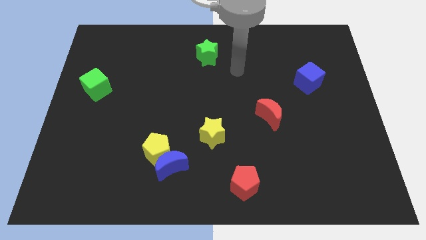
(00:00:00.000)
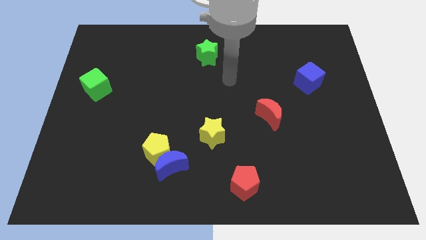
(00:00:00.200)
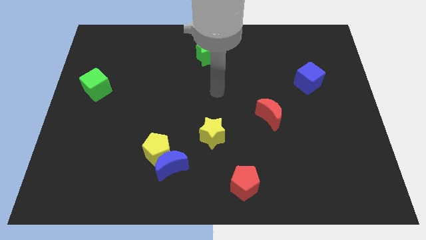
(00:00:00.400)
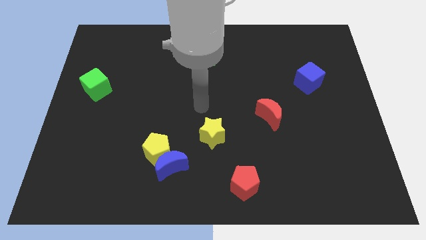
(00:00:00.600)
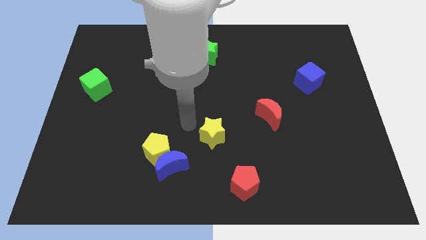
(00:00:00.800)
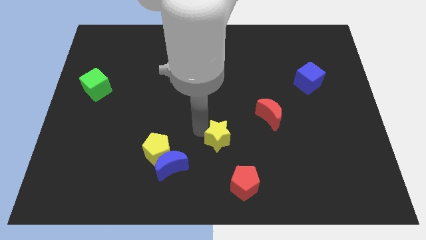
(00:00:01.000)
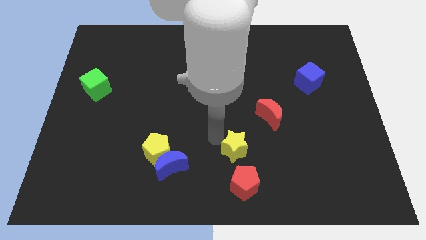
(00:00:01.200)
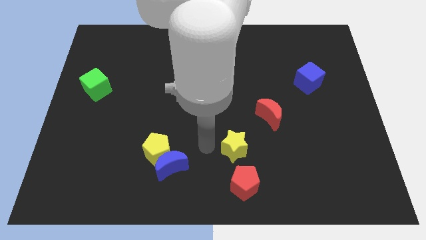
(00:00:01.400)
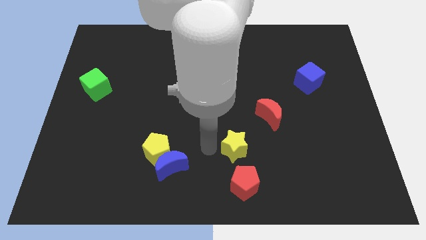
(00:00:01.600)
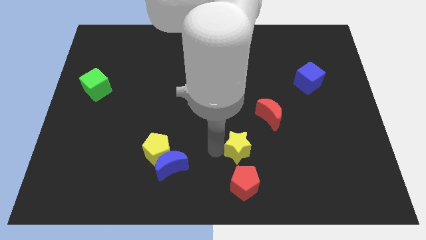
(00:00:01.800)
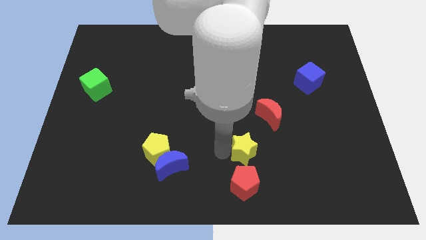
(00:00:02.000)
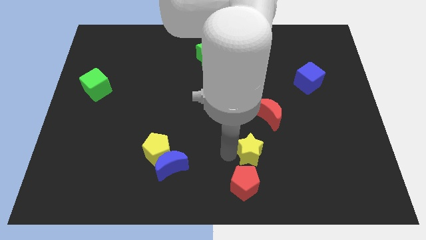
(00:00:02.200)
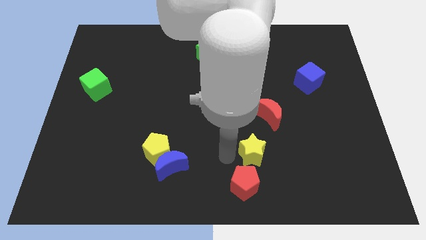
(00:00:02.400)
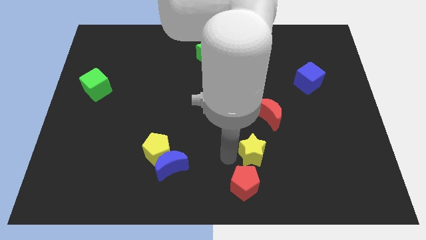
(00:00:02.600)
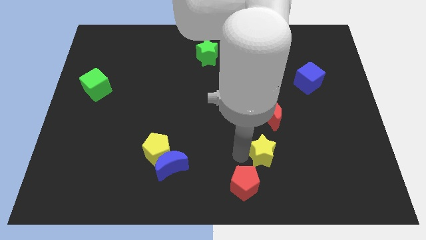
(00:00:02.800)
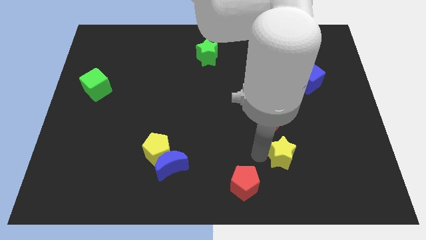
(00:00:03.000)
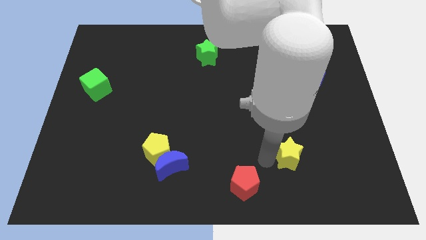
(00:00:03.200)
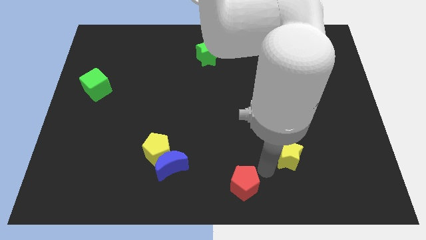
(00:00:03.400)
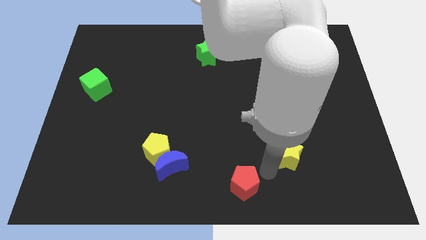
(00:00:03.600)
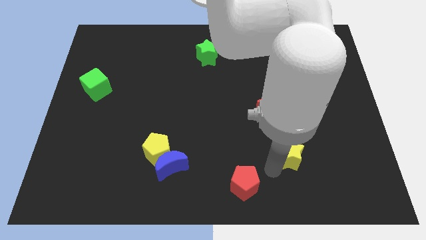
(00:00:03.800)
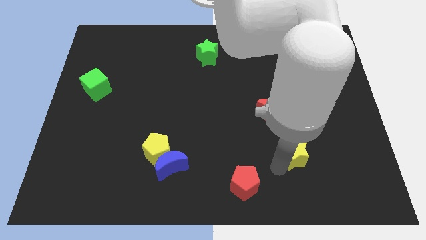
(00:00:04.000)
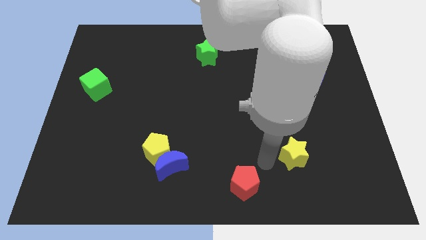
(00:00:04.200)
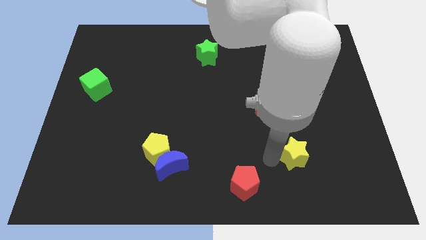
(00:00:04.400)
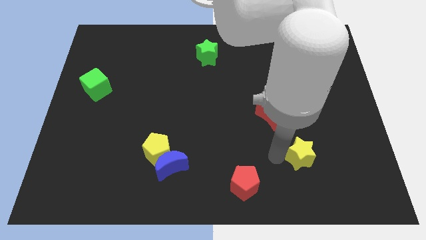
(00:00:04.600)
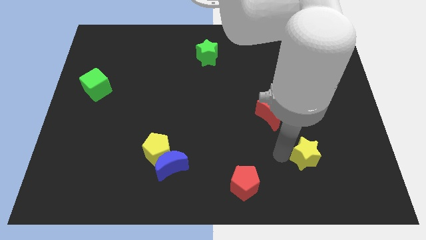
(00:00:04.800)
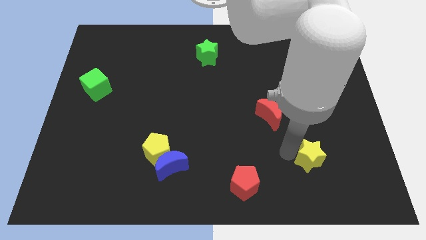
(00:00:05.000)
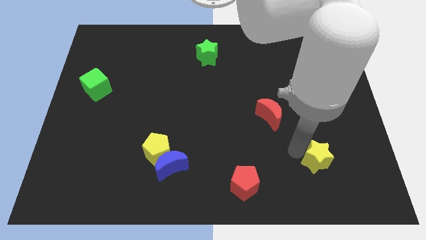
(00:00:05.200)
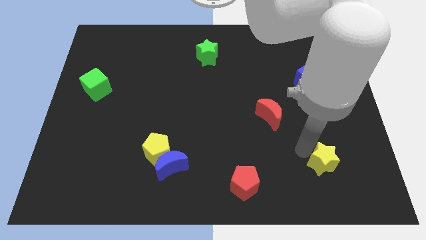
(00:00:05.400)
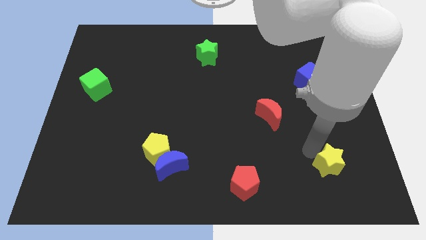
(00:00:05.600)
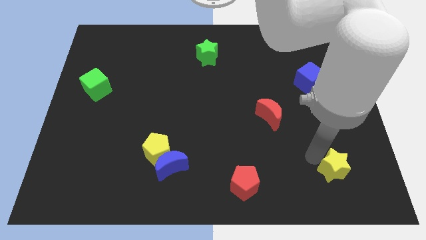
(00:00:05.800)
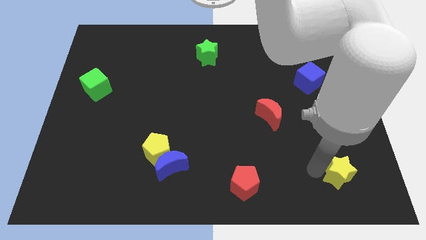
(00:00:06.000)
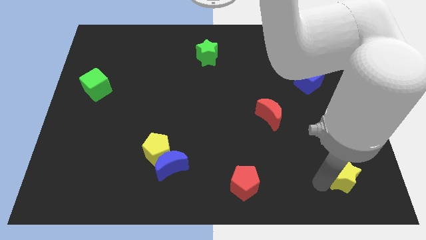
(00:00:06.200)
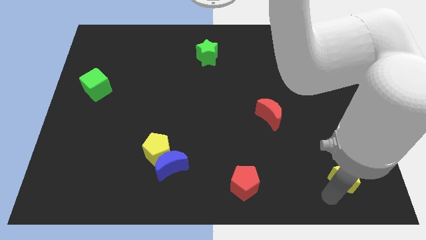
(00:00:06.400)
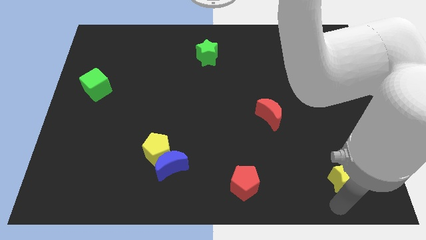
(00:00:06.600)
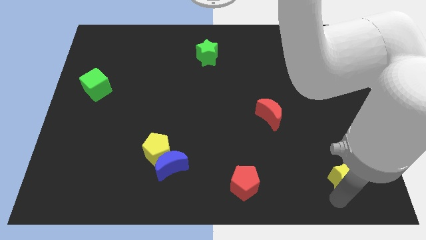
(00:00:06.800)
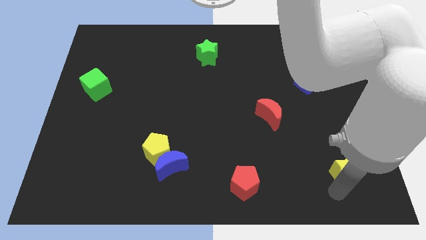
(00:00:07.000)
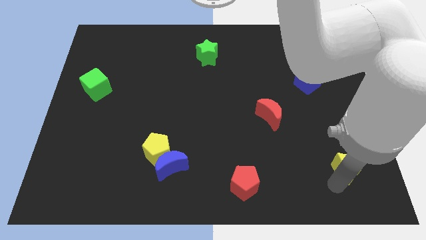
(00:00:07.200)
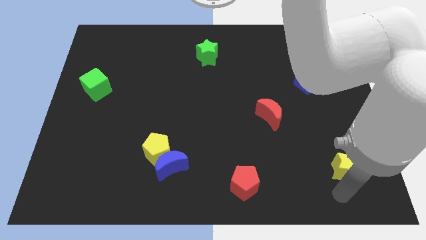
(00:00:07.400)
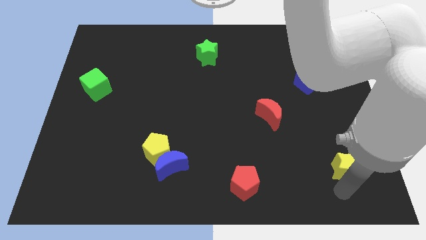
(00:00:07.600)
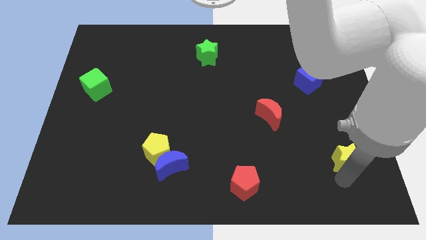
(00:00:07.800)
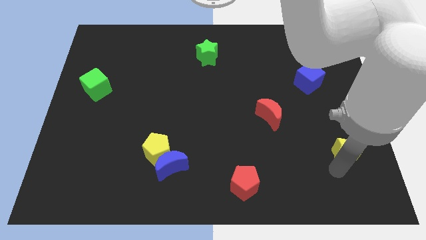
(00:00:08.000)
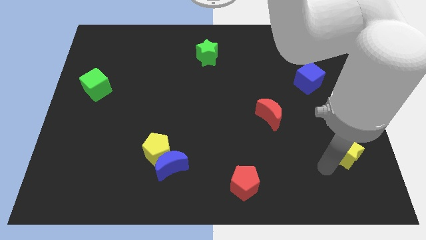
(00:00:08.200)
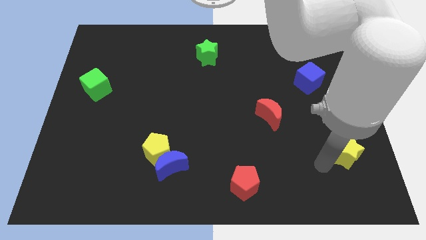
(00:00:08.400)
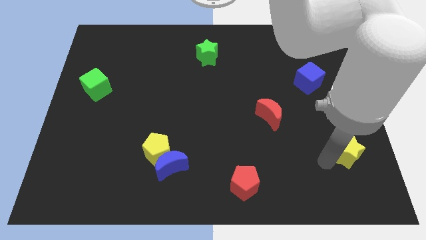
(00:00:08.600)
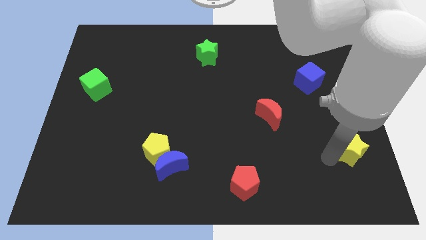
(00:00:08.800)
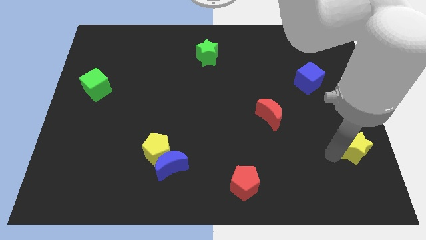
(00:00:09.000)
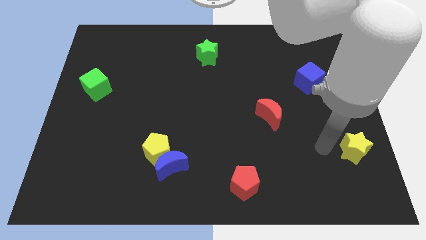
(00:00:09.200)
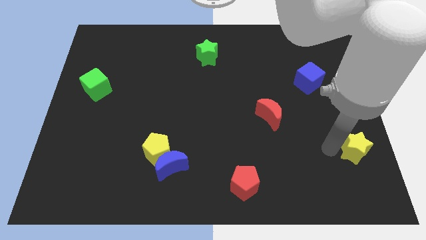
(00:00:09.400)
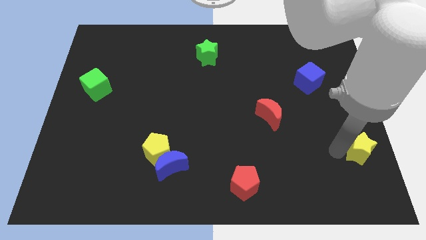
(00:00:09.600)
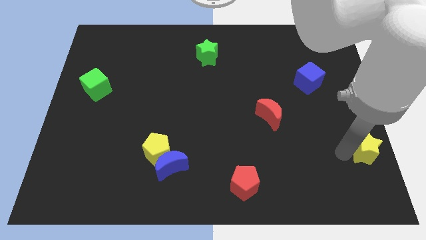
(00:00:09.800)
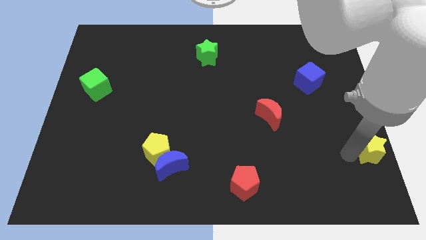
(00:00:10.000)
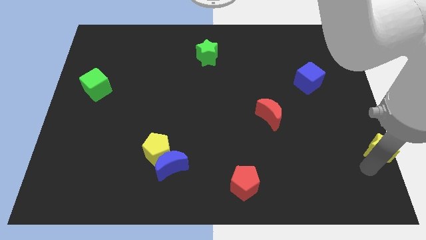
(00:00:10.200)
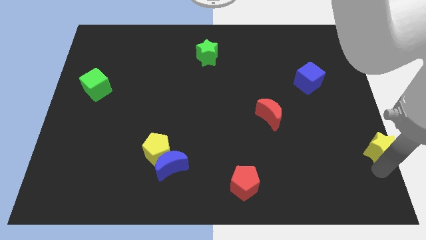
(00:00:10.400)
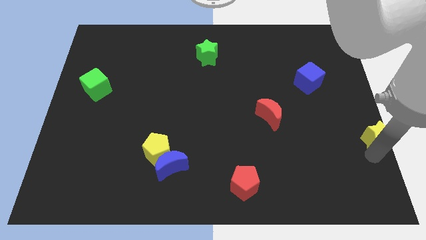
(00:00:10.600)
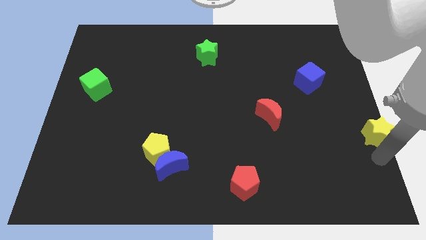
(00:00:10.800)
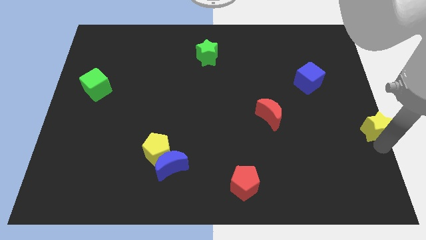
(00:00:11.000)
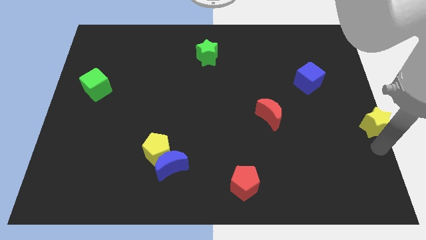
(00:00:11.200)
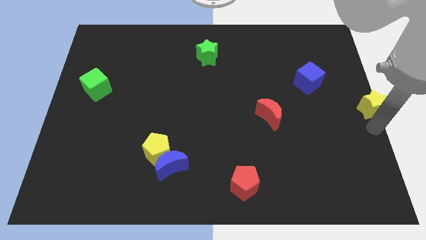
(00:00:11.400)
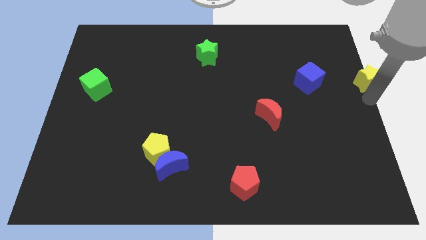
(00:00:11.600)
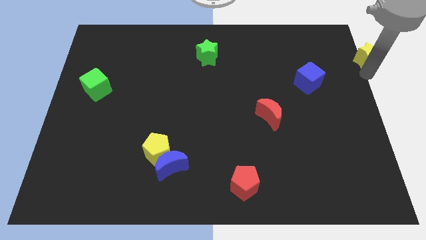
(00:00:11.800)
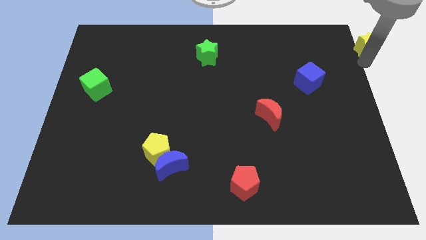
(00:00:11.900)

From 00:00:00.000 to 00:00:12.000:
put the yellow star to the top right of the board
